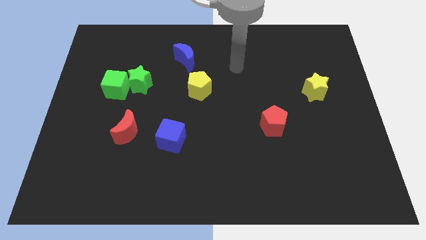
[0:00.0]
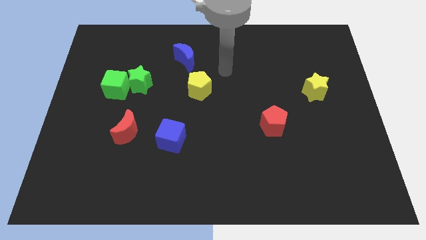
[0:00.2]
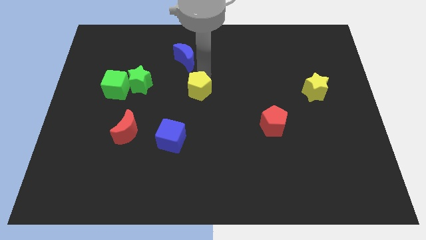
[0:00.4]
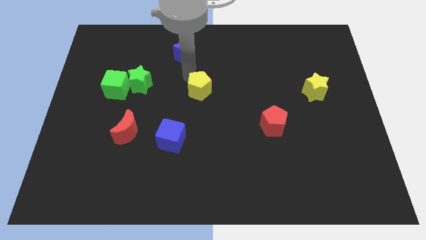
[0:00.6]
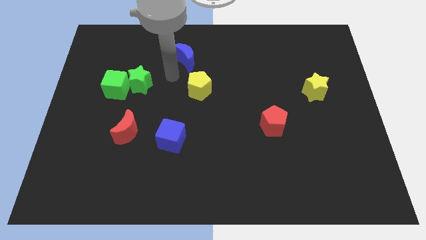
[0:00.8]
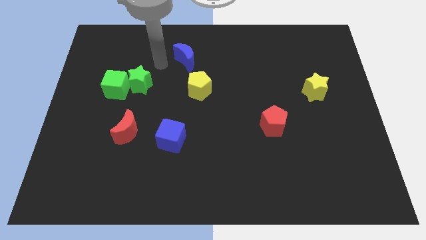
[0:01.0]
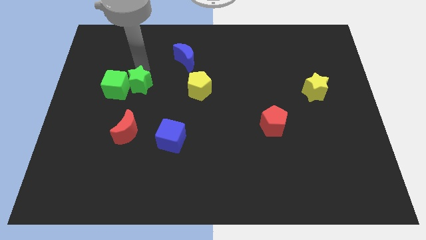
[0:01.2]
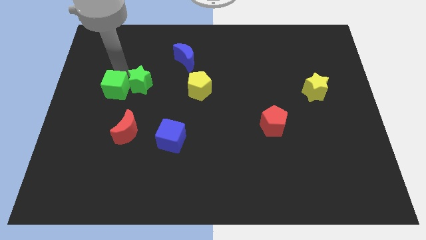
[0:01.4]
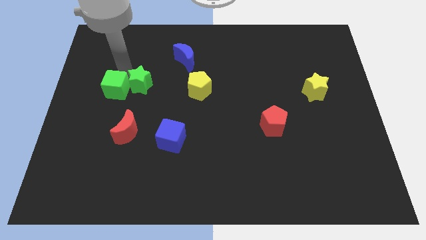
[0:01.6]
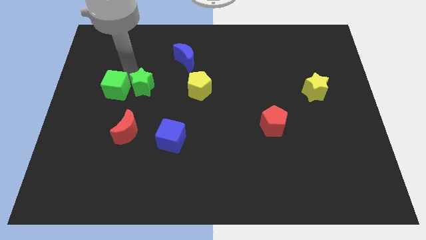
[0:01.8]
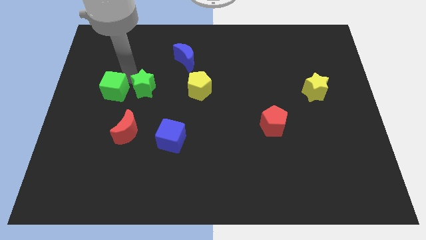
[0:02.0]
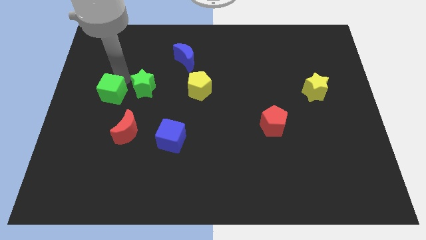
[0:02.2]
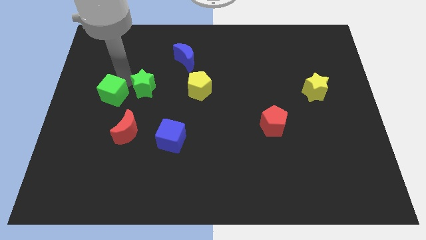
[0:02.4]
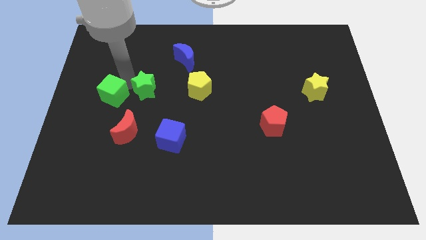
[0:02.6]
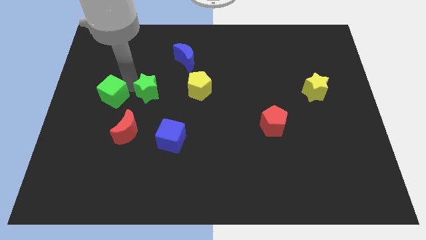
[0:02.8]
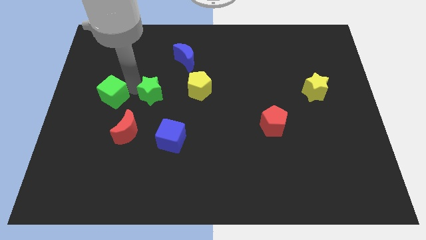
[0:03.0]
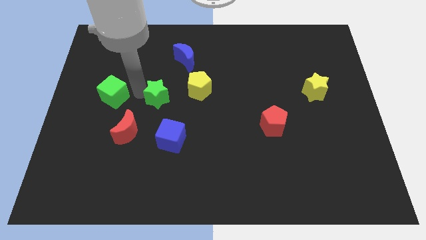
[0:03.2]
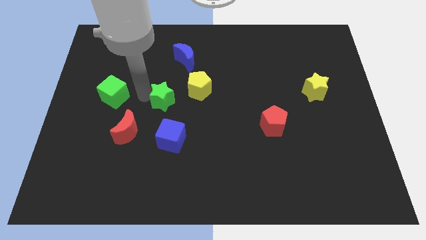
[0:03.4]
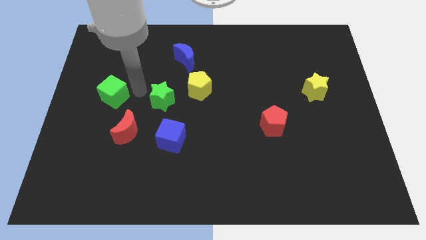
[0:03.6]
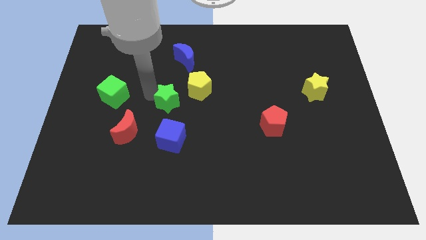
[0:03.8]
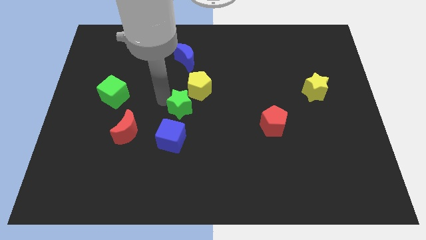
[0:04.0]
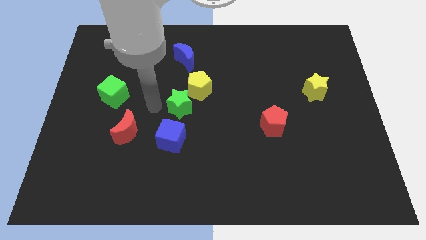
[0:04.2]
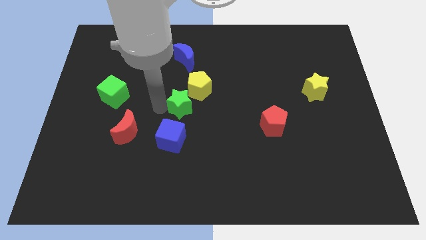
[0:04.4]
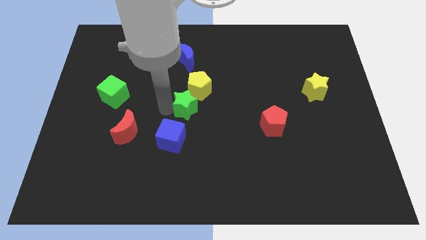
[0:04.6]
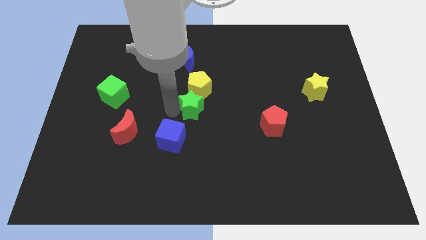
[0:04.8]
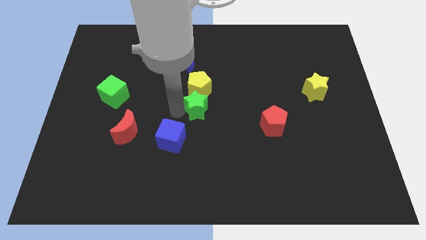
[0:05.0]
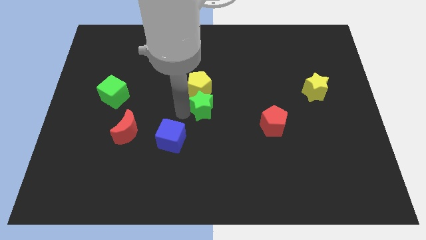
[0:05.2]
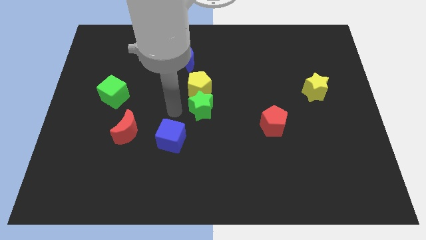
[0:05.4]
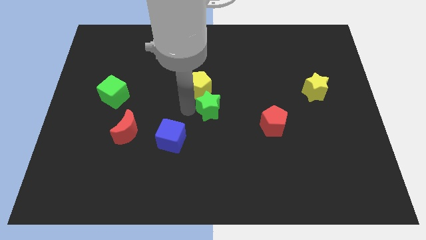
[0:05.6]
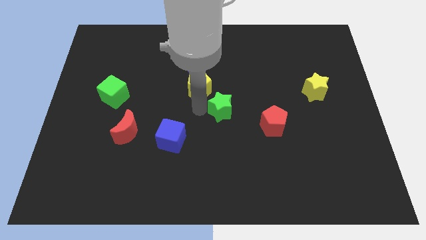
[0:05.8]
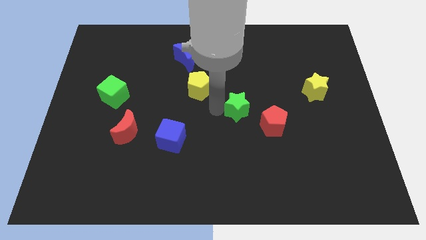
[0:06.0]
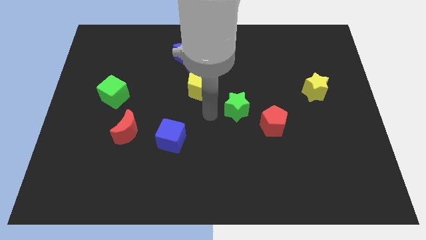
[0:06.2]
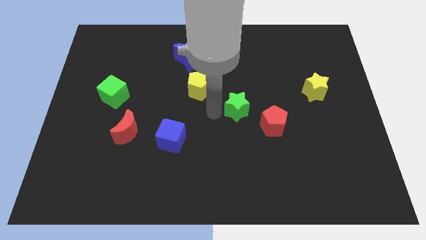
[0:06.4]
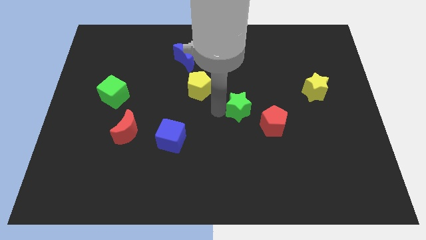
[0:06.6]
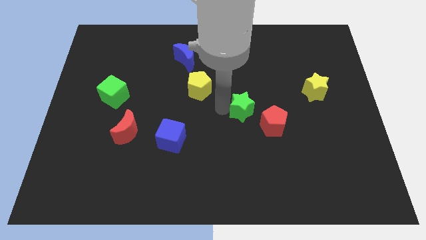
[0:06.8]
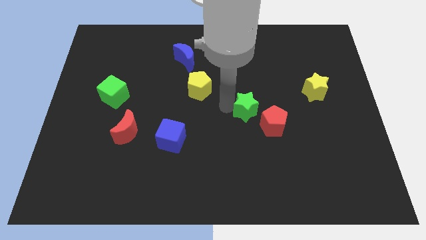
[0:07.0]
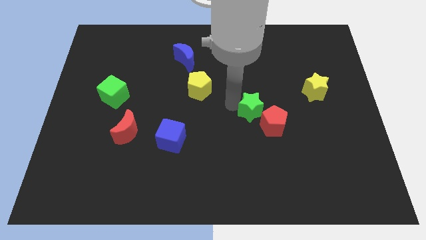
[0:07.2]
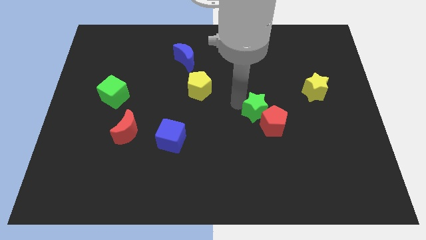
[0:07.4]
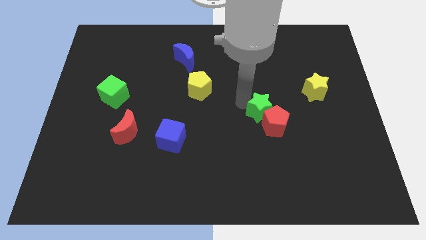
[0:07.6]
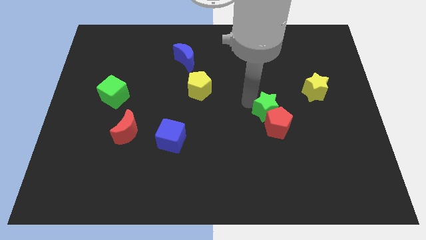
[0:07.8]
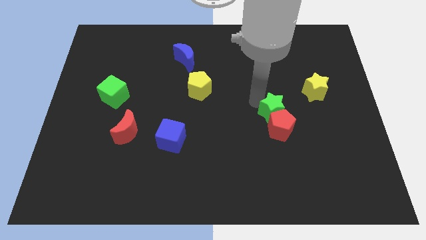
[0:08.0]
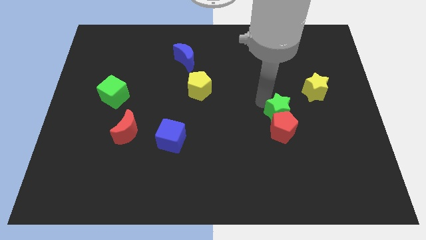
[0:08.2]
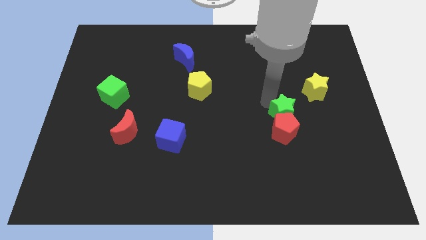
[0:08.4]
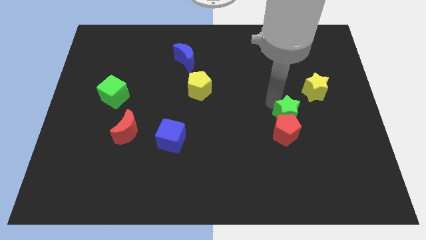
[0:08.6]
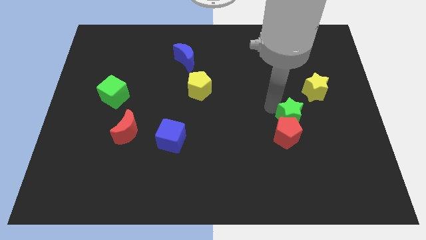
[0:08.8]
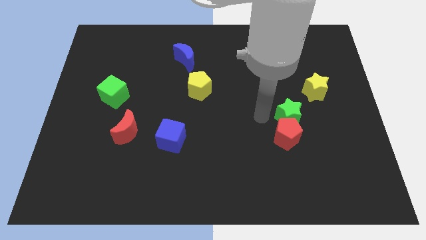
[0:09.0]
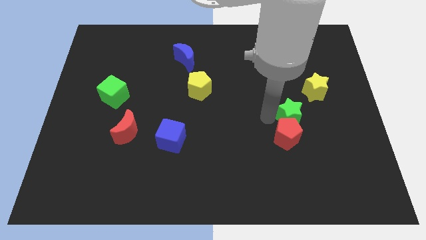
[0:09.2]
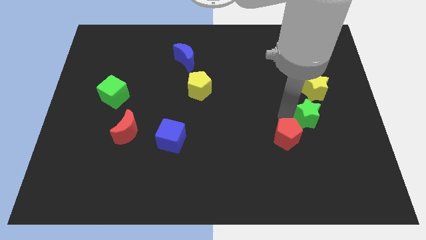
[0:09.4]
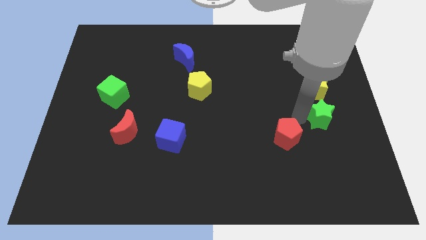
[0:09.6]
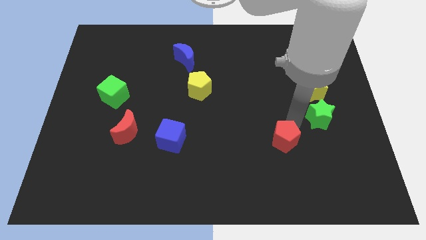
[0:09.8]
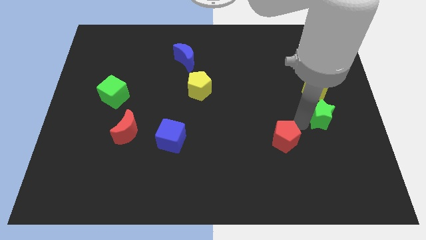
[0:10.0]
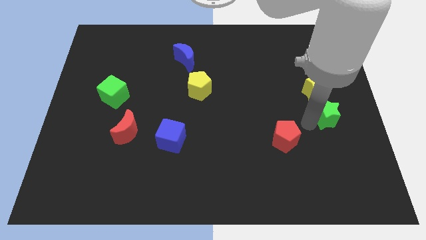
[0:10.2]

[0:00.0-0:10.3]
move the green star to the right side of the board

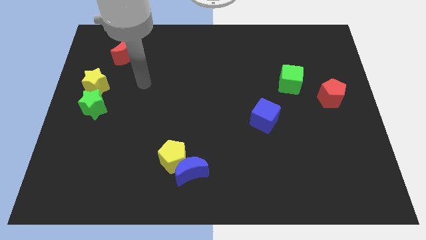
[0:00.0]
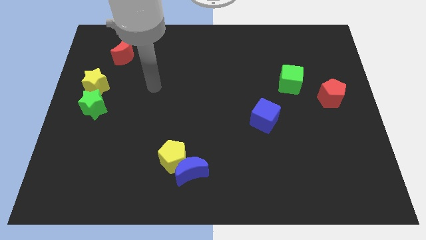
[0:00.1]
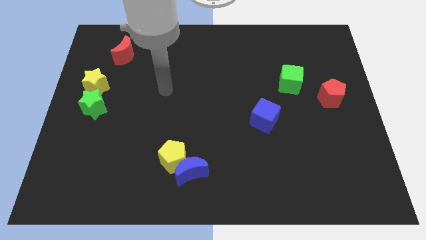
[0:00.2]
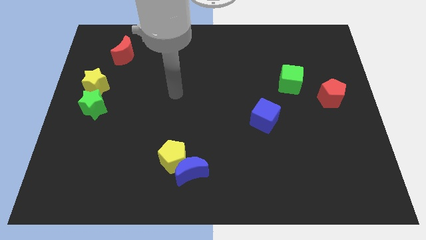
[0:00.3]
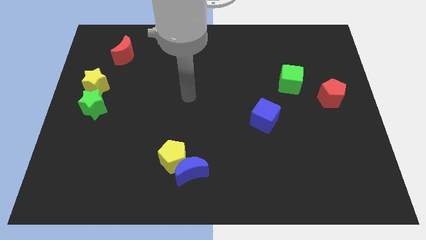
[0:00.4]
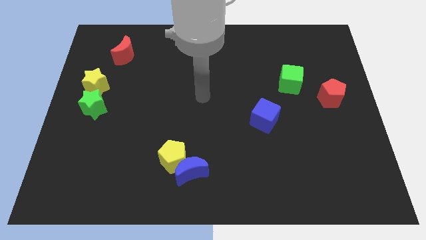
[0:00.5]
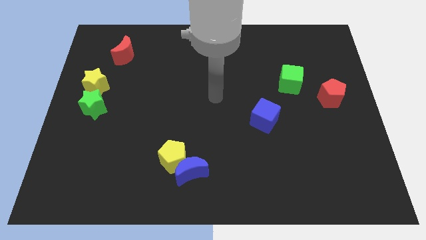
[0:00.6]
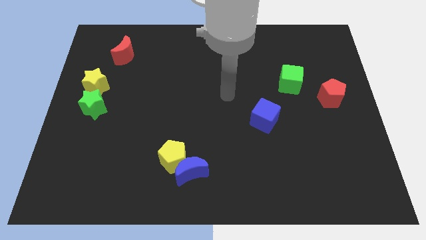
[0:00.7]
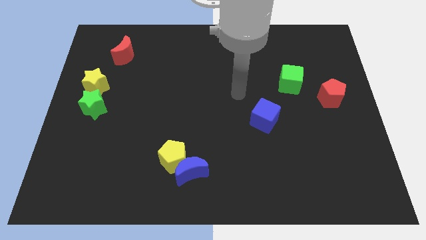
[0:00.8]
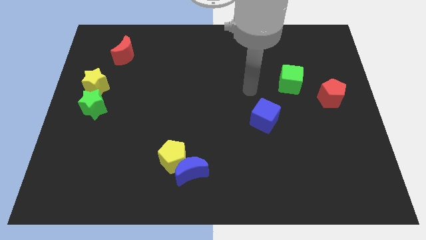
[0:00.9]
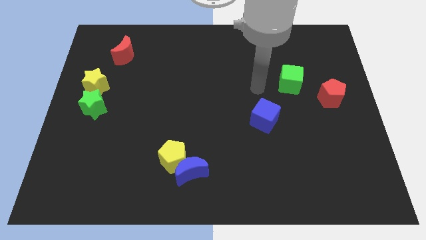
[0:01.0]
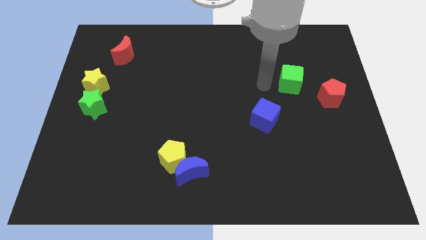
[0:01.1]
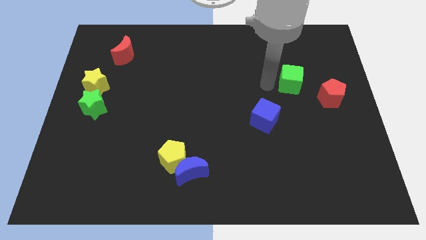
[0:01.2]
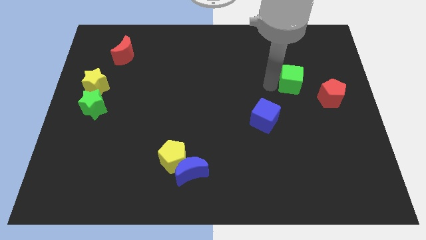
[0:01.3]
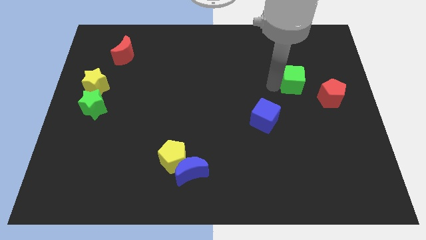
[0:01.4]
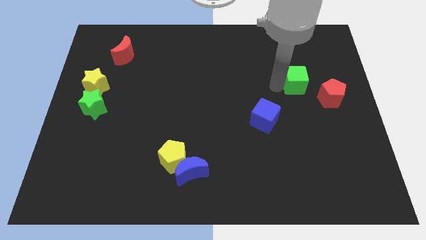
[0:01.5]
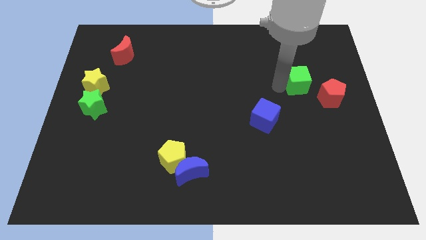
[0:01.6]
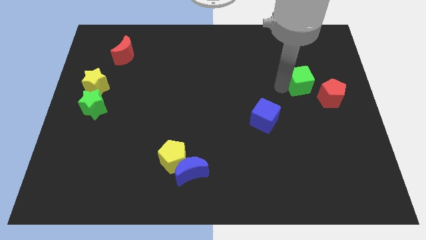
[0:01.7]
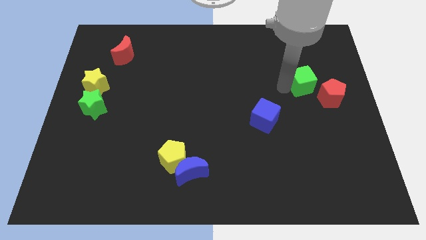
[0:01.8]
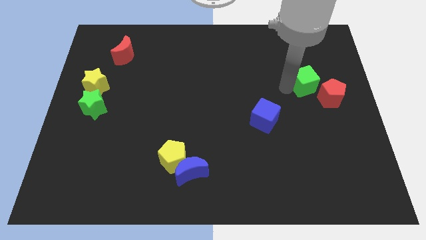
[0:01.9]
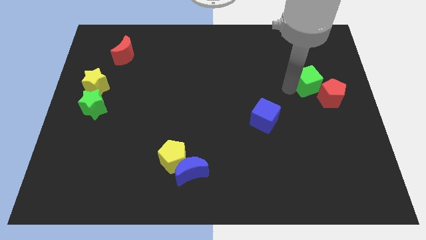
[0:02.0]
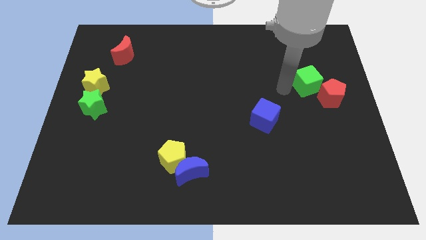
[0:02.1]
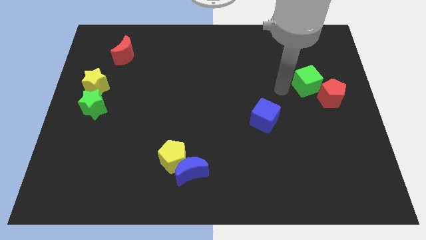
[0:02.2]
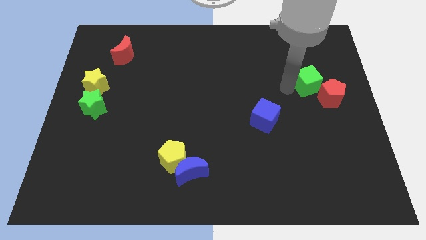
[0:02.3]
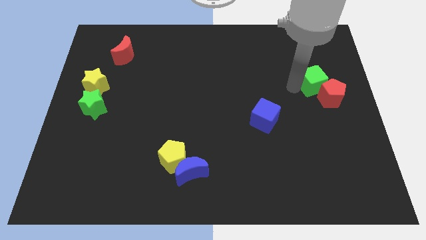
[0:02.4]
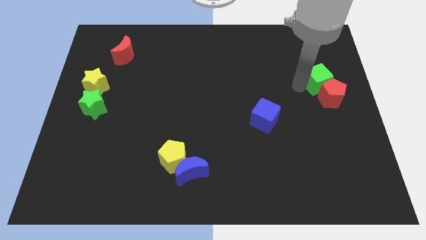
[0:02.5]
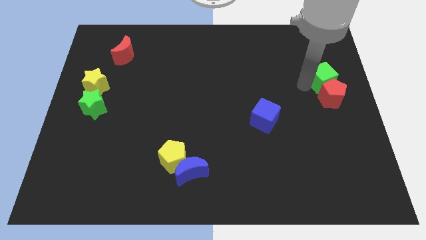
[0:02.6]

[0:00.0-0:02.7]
push the green cube to the center right
